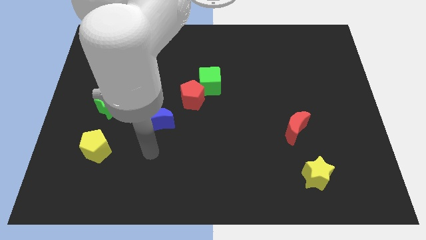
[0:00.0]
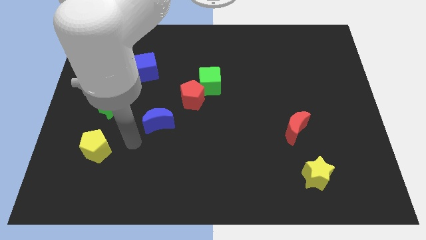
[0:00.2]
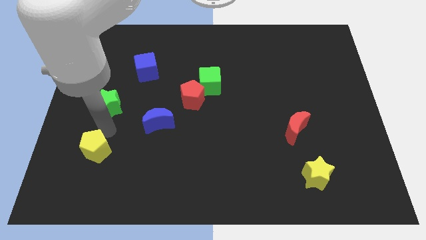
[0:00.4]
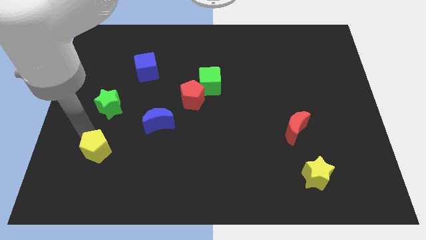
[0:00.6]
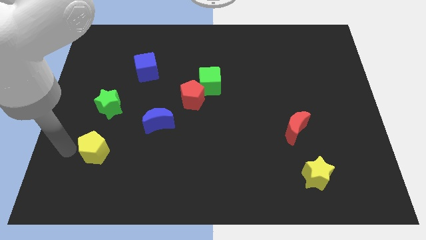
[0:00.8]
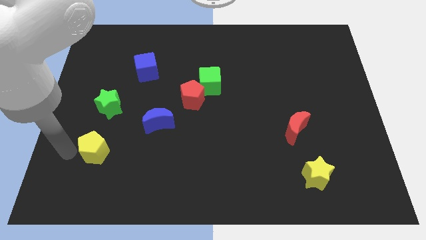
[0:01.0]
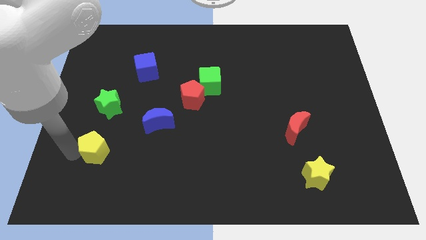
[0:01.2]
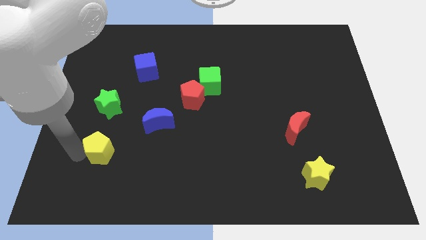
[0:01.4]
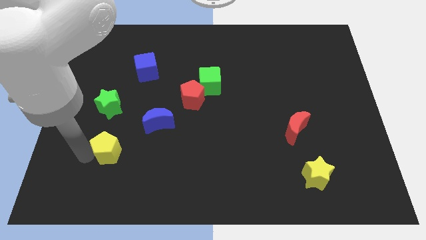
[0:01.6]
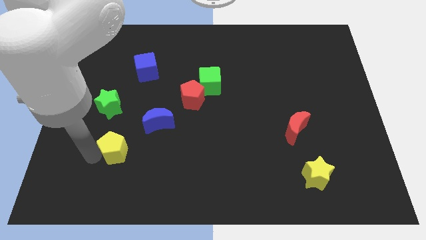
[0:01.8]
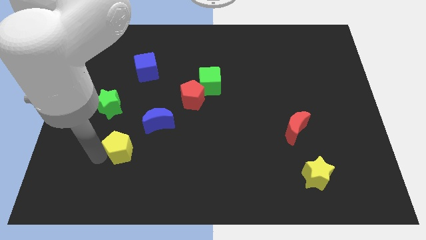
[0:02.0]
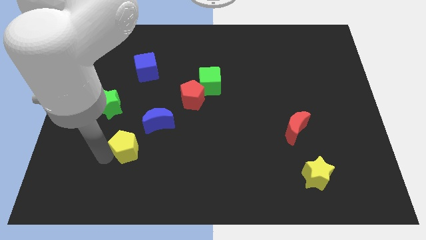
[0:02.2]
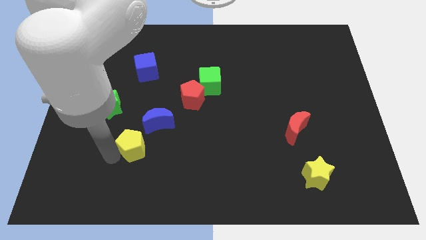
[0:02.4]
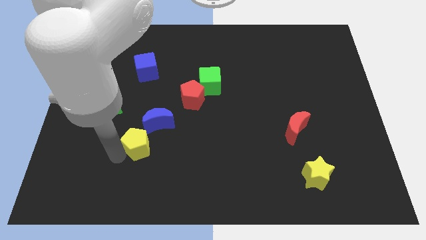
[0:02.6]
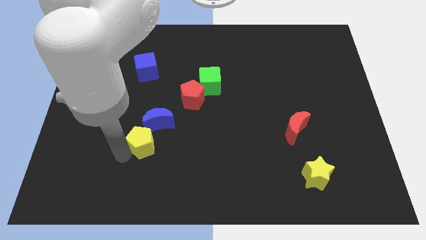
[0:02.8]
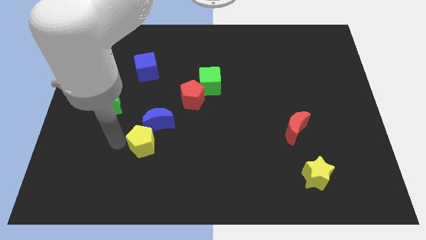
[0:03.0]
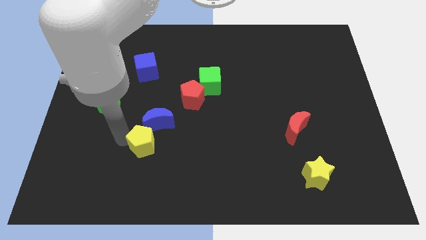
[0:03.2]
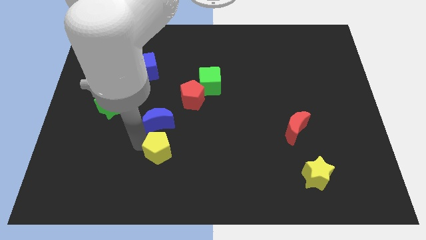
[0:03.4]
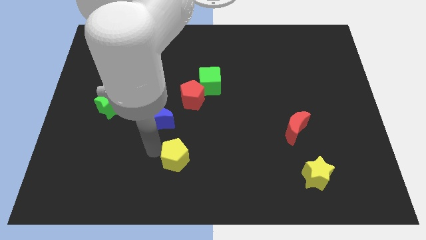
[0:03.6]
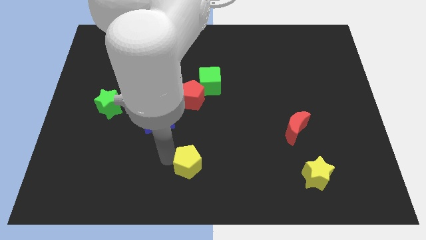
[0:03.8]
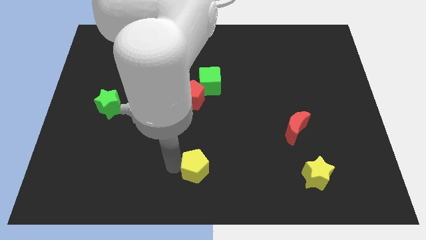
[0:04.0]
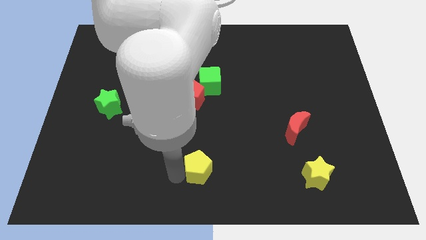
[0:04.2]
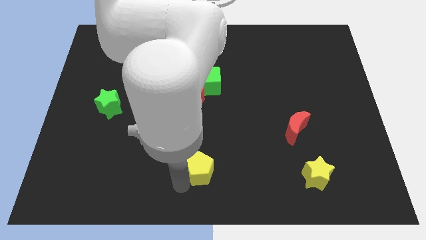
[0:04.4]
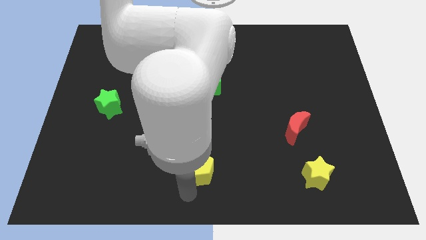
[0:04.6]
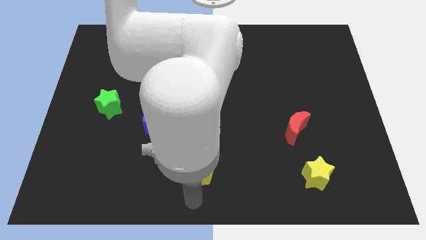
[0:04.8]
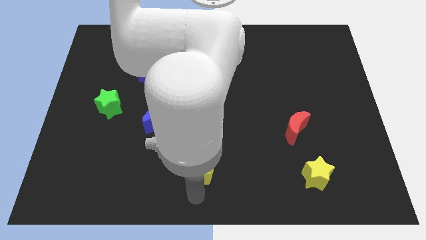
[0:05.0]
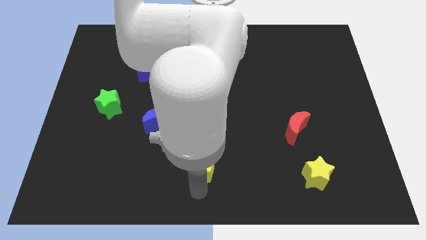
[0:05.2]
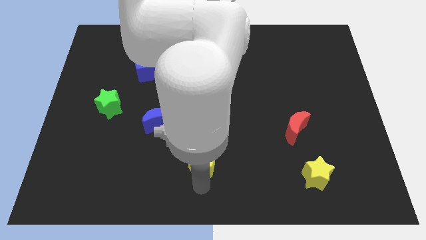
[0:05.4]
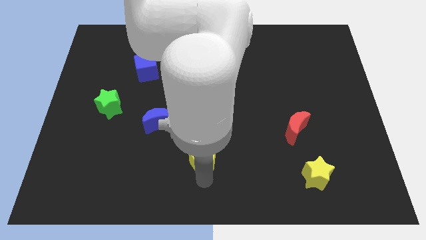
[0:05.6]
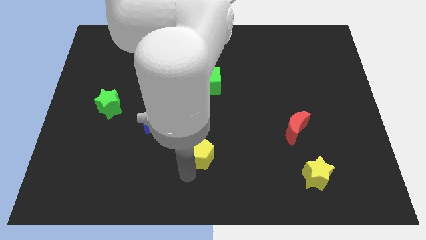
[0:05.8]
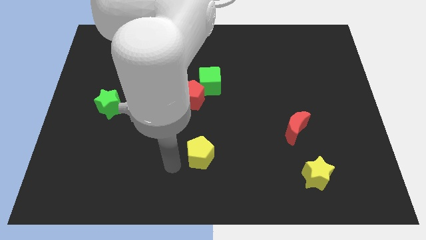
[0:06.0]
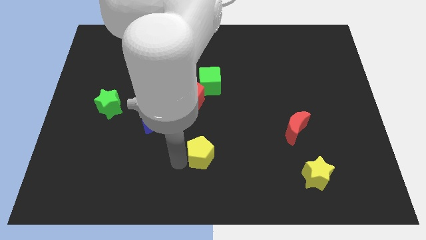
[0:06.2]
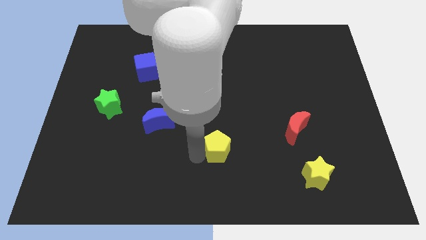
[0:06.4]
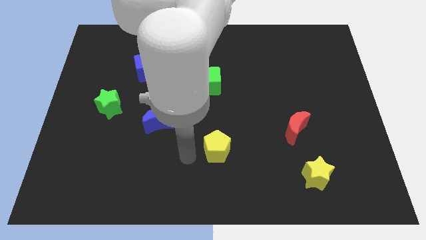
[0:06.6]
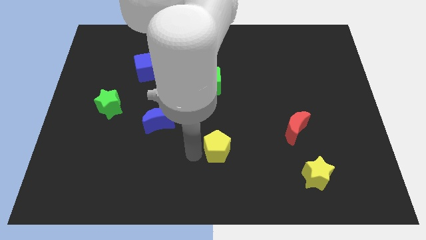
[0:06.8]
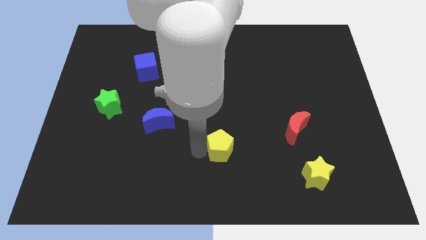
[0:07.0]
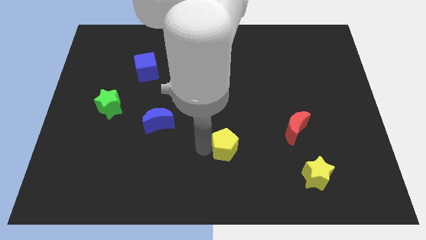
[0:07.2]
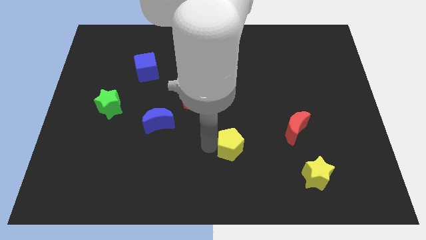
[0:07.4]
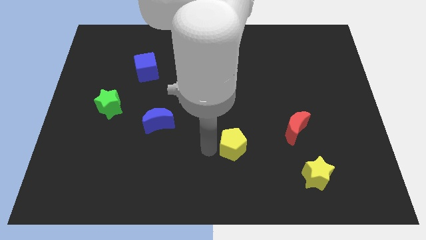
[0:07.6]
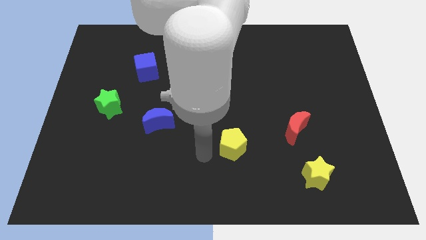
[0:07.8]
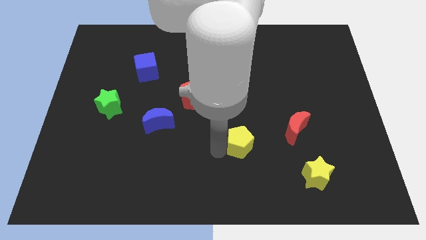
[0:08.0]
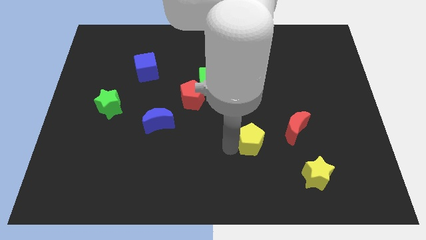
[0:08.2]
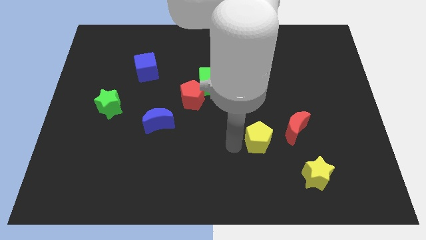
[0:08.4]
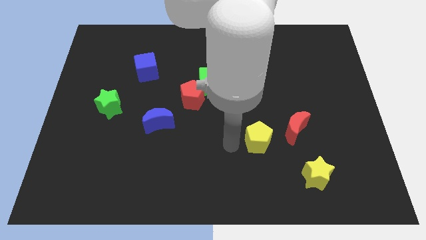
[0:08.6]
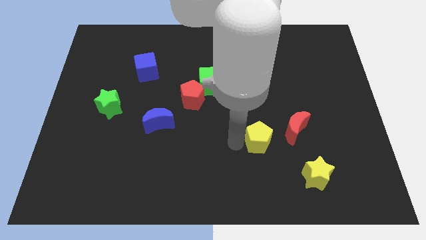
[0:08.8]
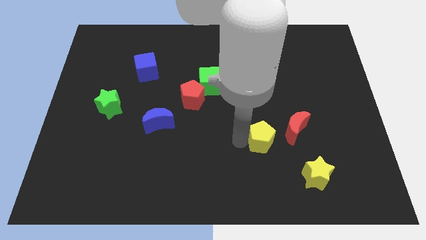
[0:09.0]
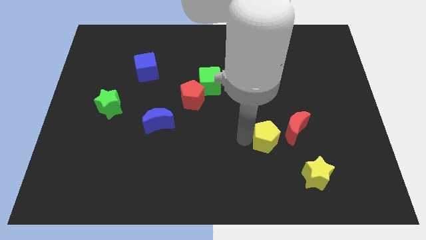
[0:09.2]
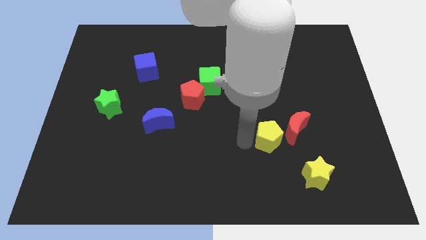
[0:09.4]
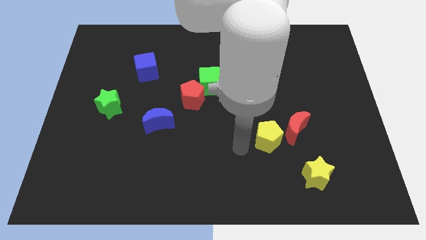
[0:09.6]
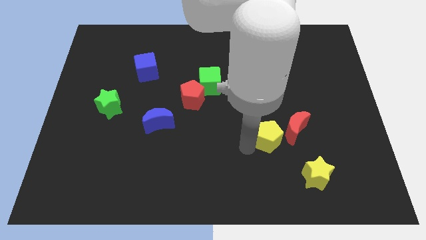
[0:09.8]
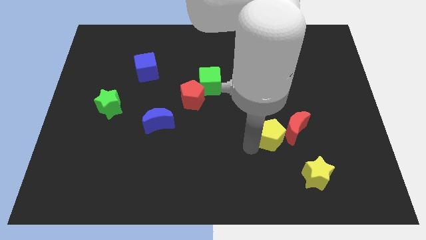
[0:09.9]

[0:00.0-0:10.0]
push the yellow pentagon towards the red moon
